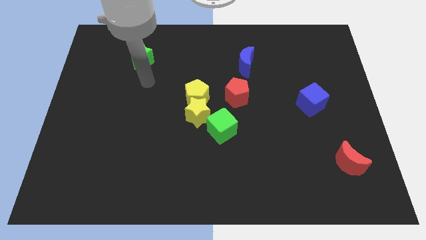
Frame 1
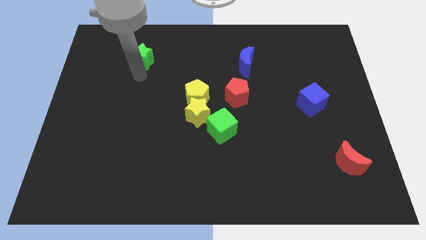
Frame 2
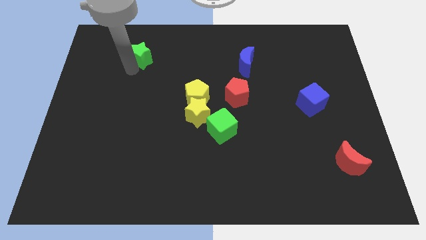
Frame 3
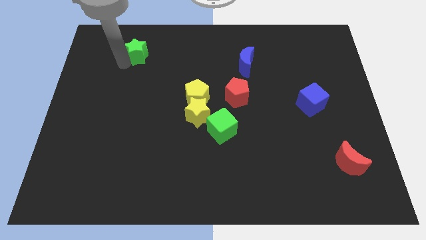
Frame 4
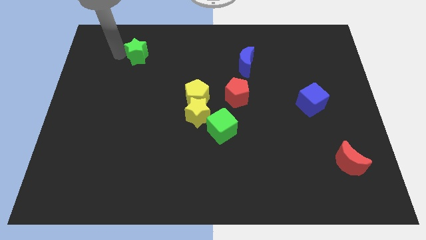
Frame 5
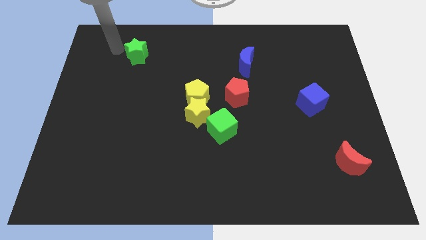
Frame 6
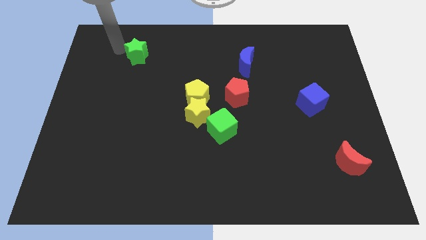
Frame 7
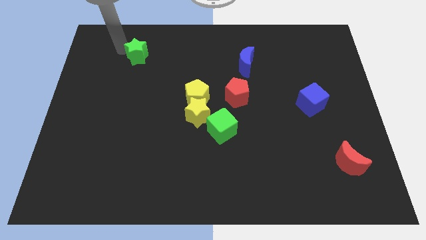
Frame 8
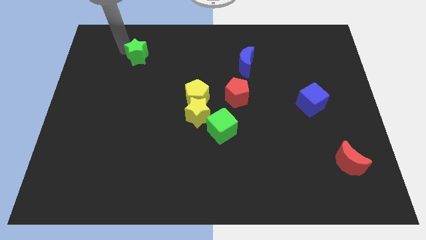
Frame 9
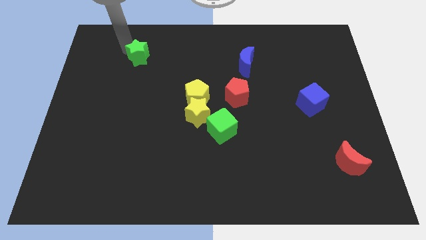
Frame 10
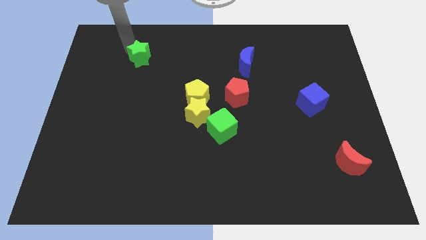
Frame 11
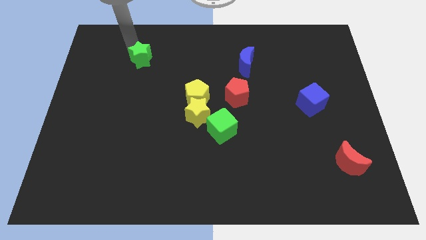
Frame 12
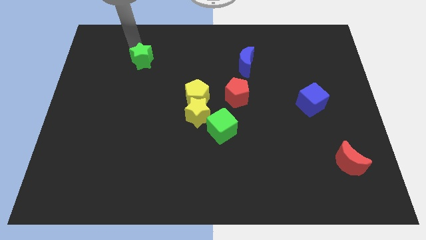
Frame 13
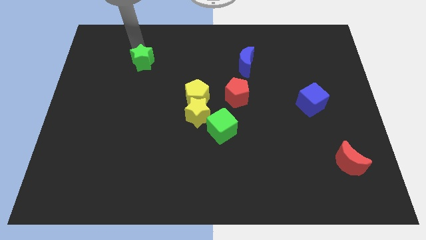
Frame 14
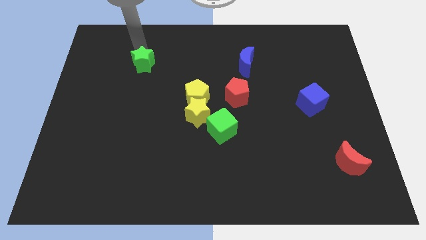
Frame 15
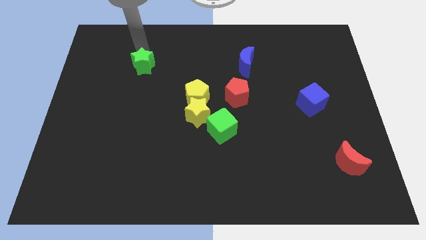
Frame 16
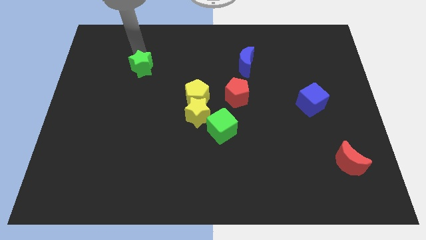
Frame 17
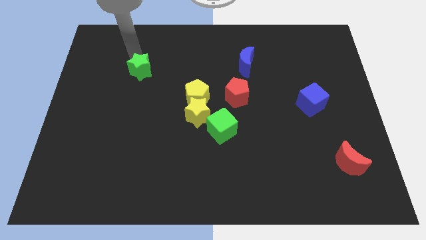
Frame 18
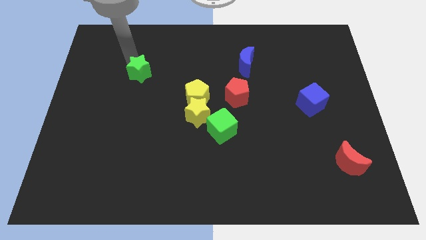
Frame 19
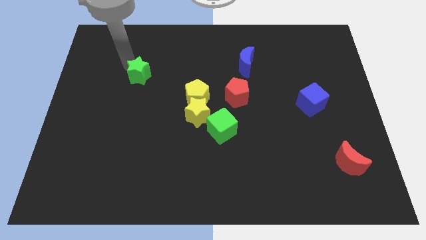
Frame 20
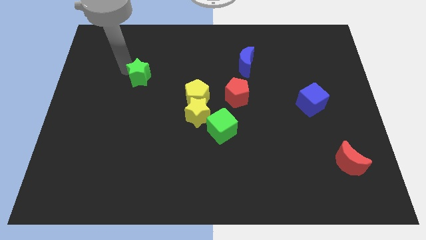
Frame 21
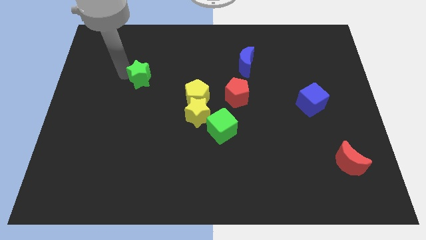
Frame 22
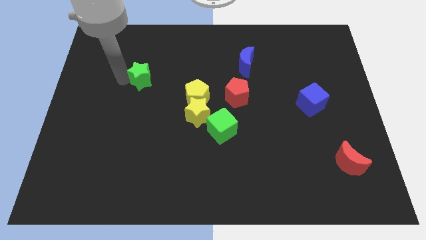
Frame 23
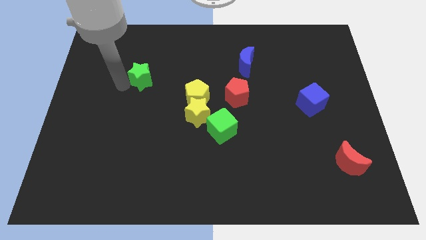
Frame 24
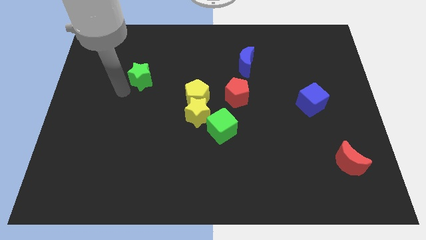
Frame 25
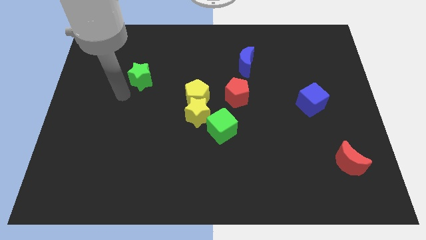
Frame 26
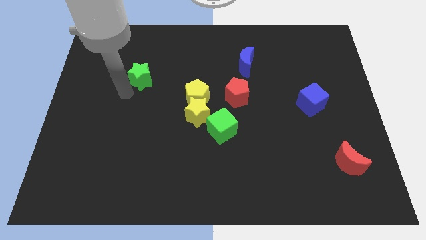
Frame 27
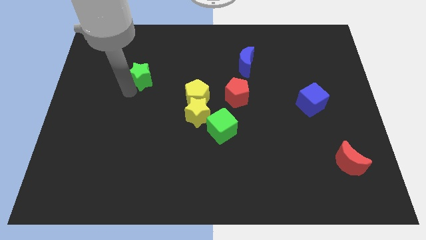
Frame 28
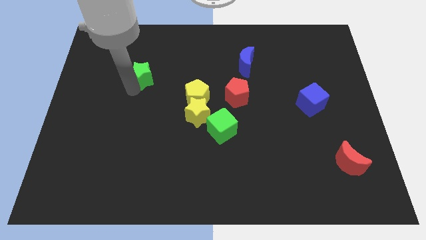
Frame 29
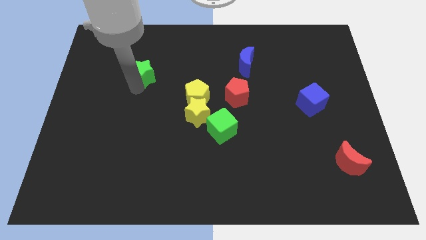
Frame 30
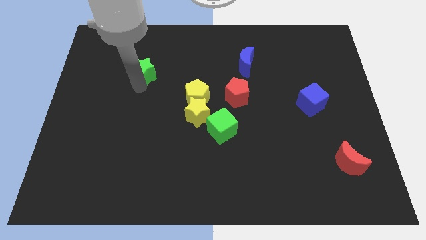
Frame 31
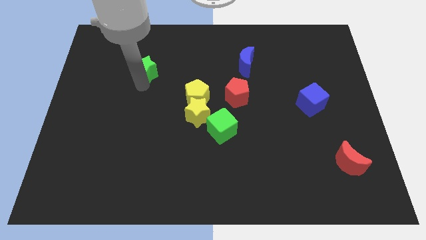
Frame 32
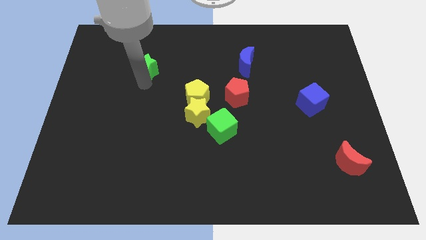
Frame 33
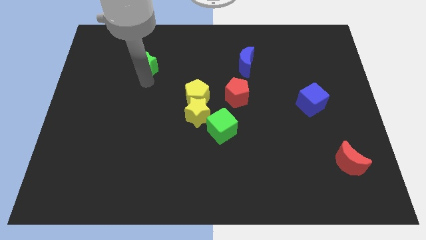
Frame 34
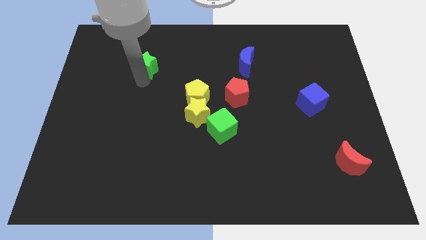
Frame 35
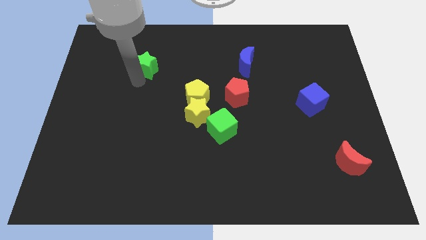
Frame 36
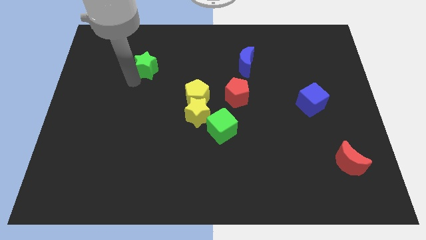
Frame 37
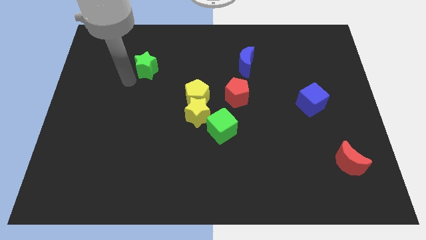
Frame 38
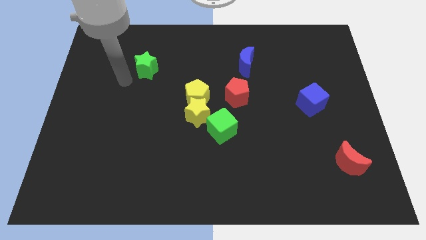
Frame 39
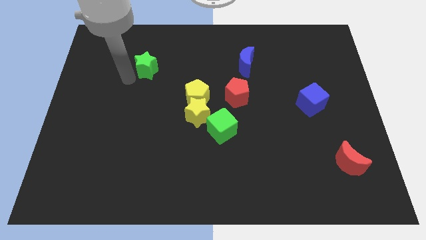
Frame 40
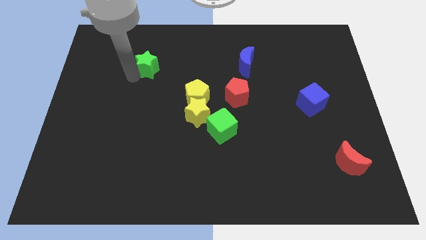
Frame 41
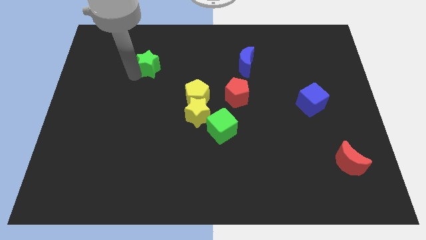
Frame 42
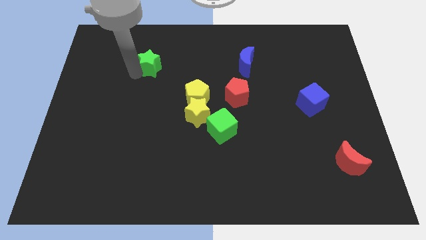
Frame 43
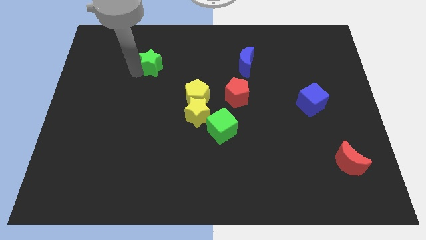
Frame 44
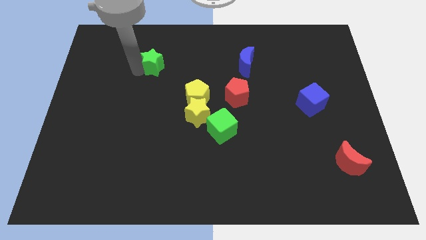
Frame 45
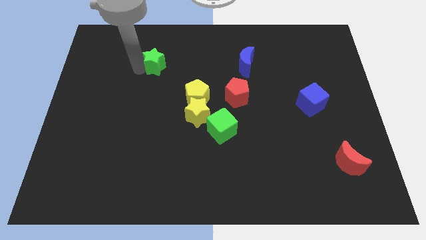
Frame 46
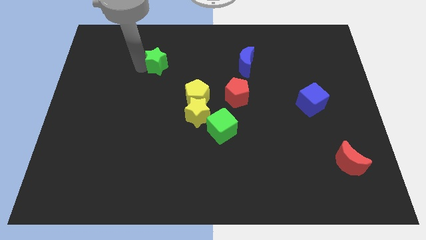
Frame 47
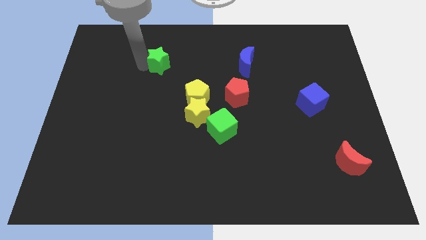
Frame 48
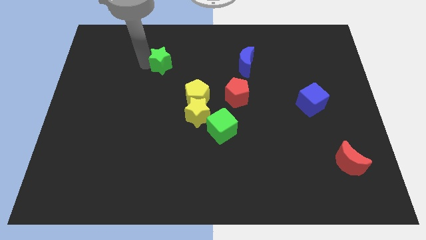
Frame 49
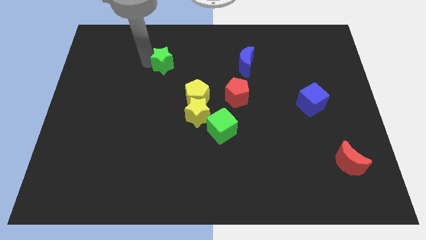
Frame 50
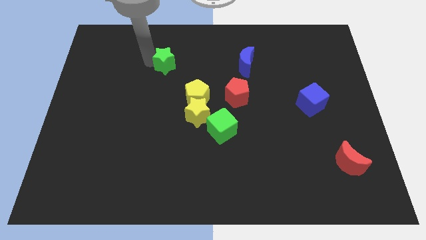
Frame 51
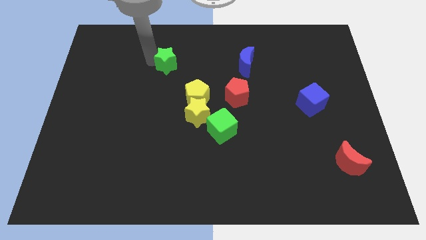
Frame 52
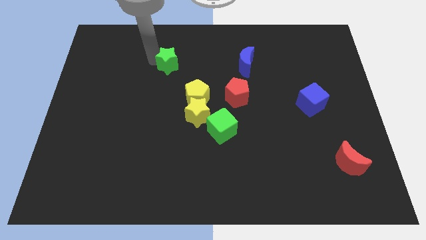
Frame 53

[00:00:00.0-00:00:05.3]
slide the green star a bit right

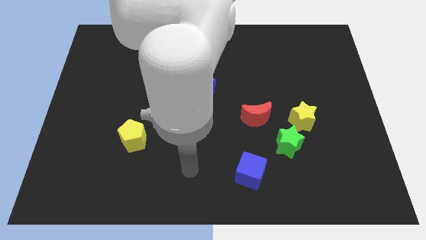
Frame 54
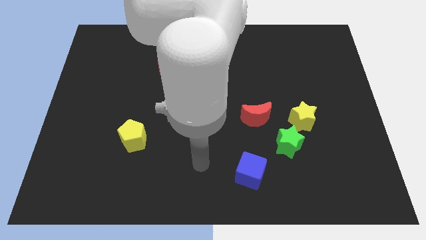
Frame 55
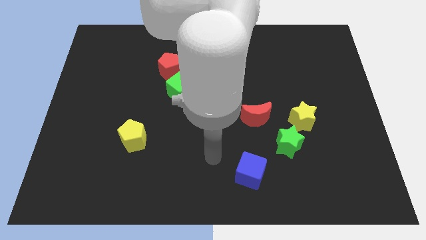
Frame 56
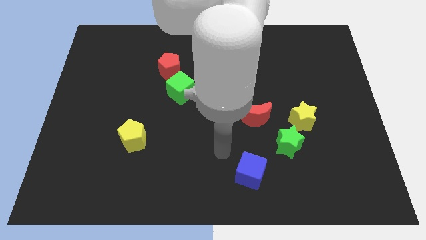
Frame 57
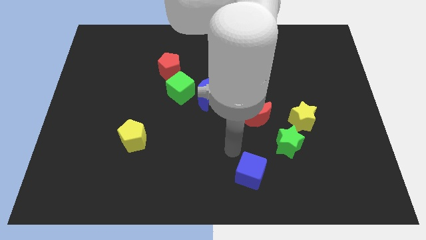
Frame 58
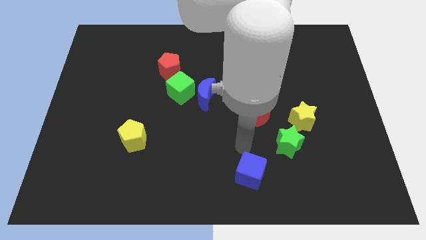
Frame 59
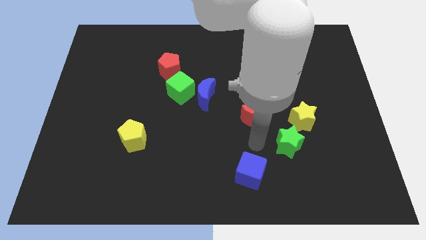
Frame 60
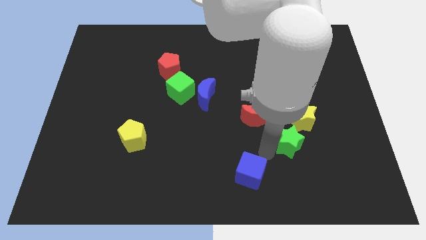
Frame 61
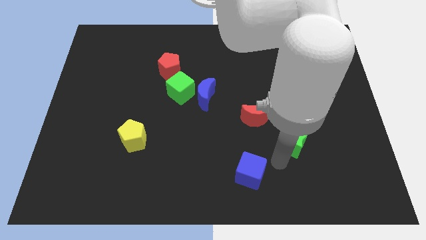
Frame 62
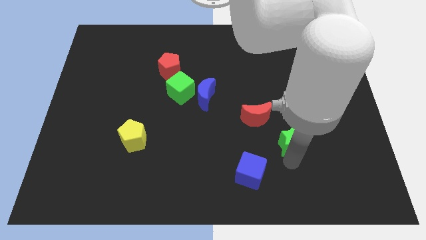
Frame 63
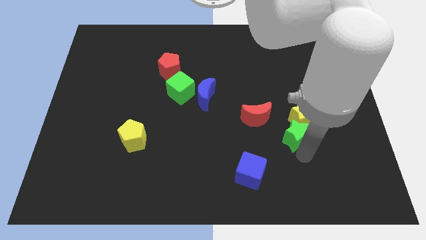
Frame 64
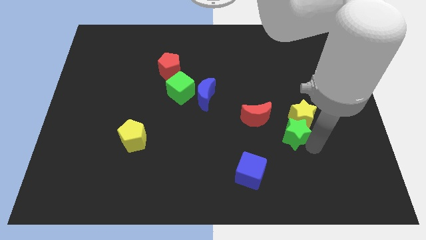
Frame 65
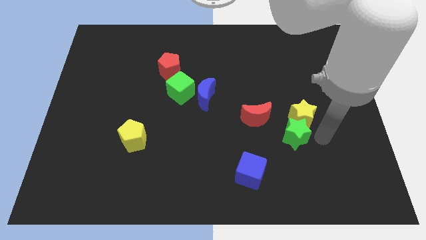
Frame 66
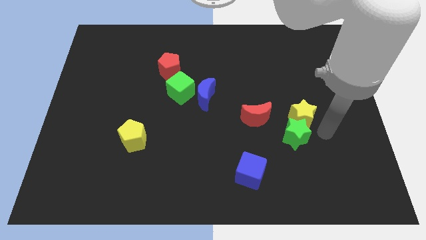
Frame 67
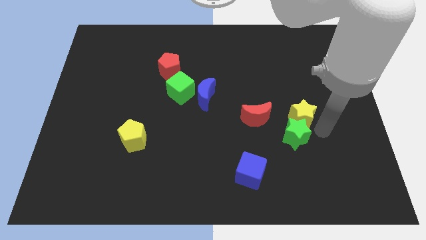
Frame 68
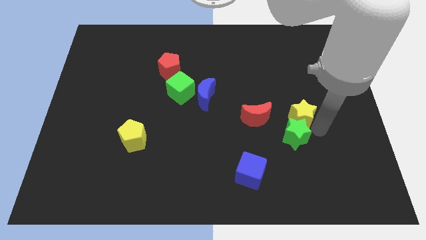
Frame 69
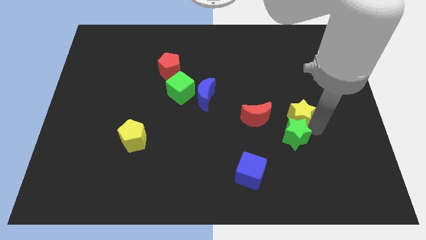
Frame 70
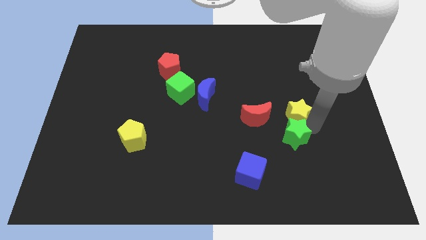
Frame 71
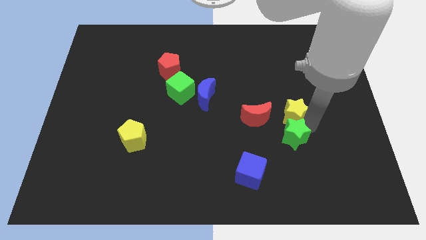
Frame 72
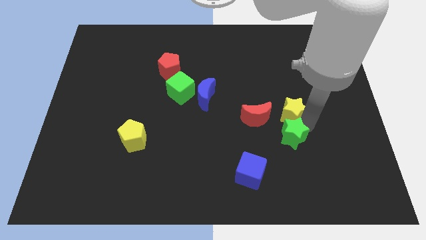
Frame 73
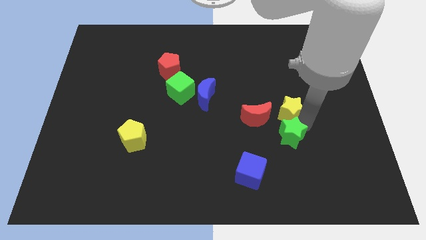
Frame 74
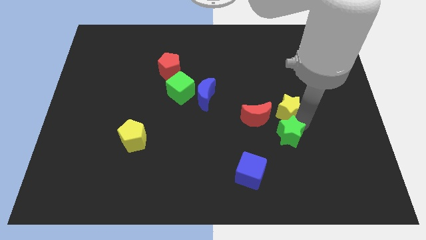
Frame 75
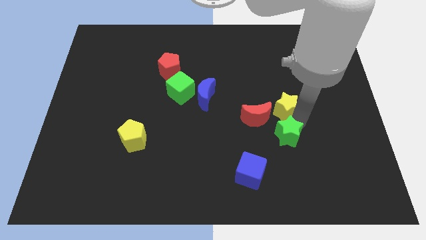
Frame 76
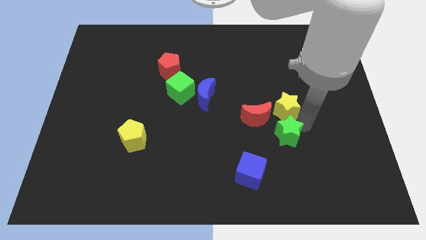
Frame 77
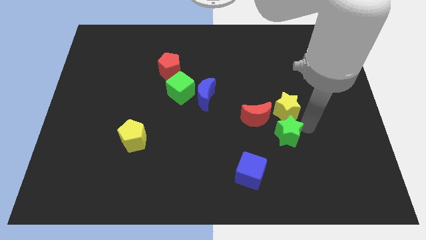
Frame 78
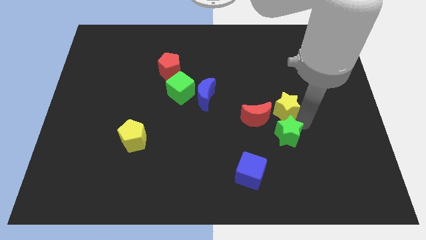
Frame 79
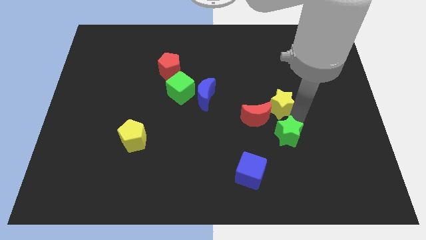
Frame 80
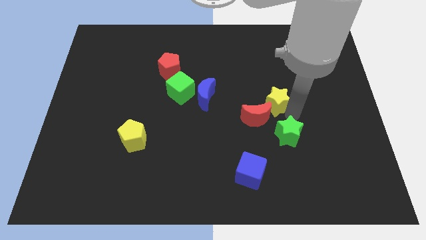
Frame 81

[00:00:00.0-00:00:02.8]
push the yellow star somewhat up and left diagonally
